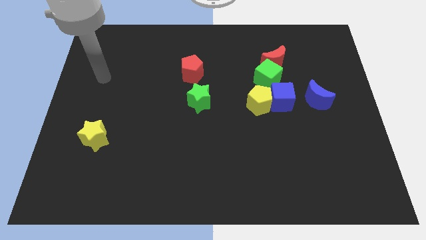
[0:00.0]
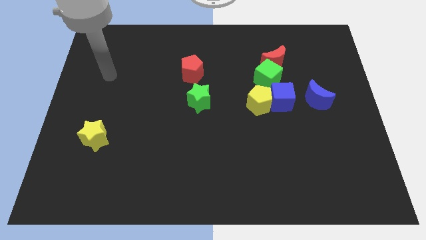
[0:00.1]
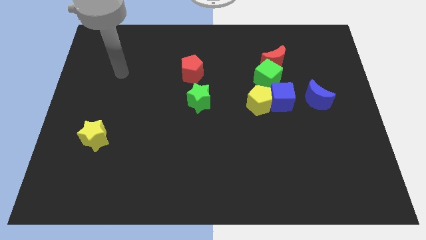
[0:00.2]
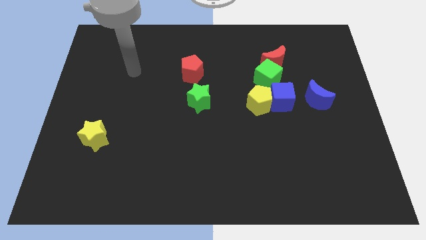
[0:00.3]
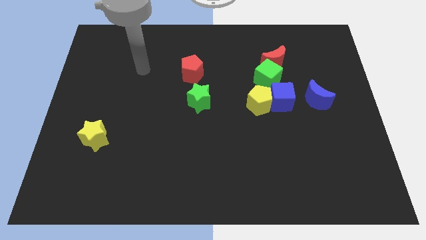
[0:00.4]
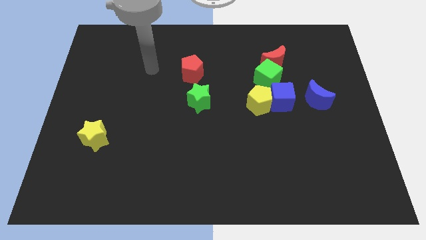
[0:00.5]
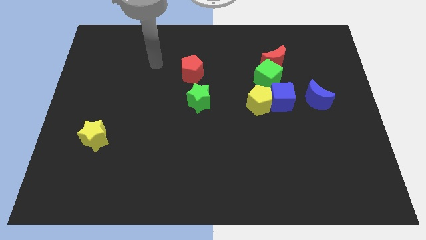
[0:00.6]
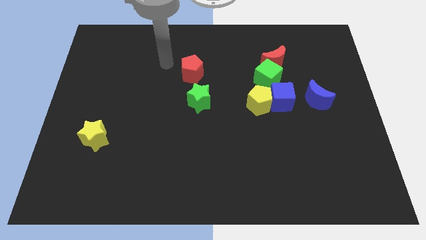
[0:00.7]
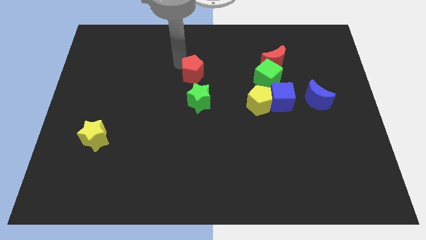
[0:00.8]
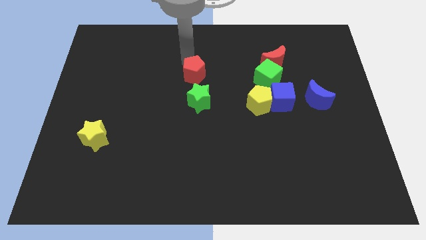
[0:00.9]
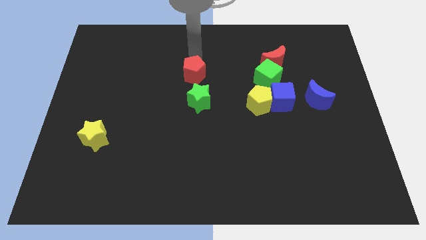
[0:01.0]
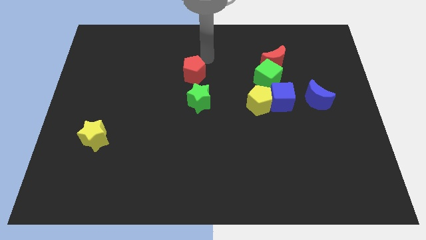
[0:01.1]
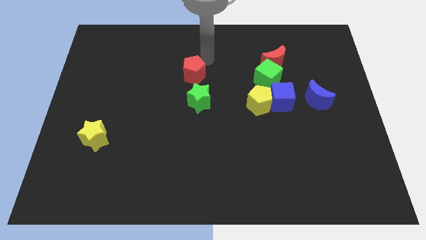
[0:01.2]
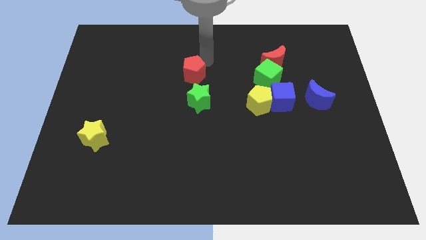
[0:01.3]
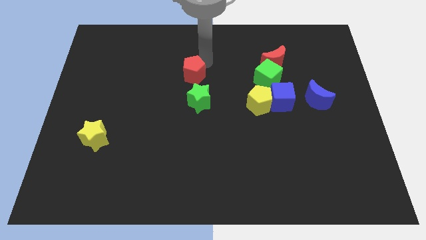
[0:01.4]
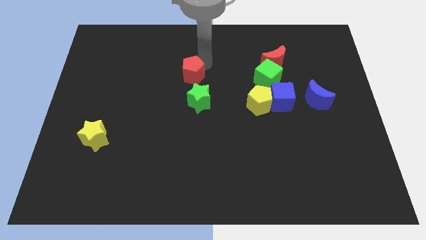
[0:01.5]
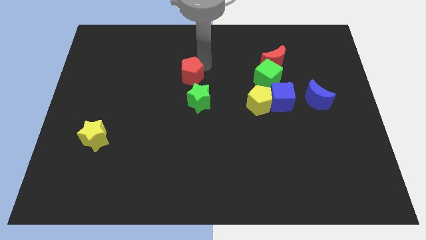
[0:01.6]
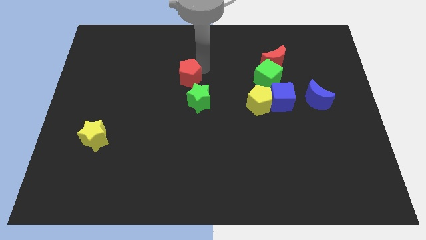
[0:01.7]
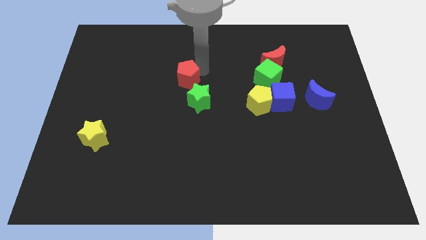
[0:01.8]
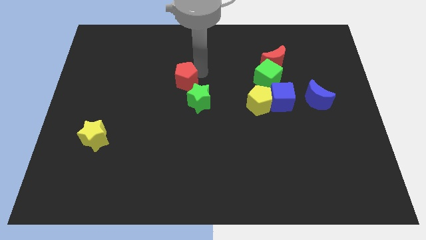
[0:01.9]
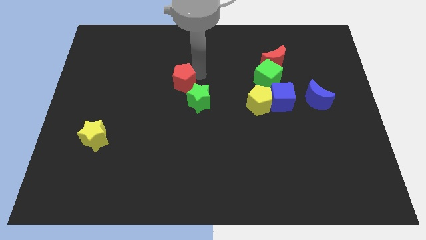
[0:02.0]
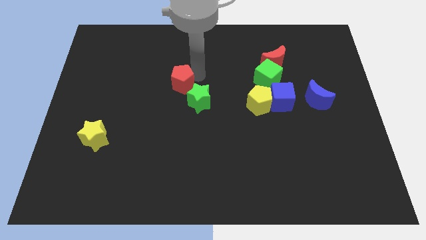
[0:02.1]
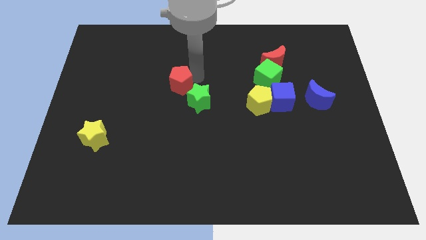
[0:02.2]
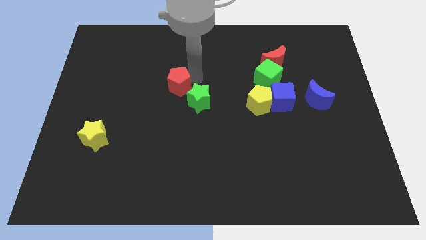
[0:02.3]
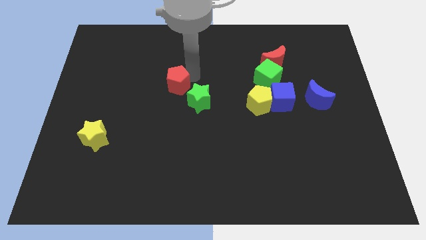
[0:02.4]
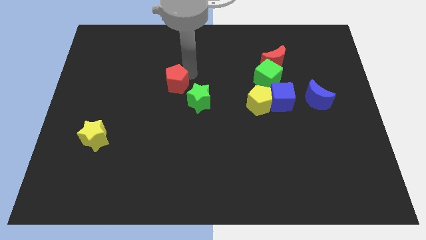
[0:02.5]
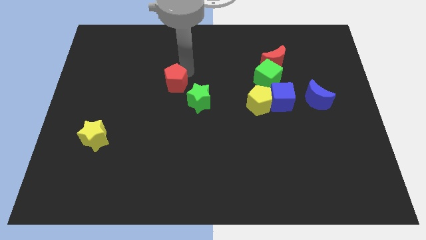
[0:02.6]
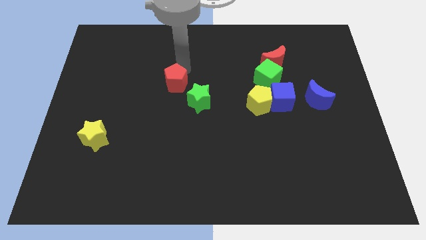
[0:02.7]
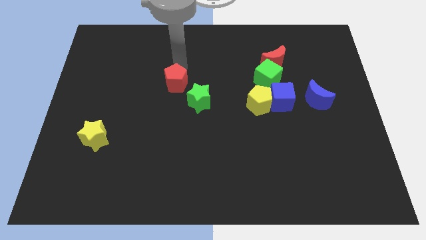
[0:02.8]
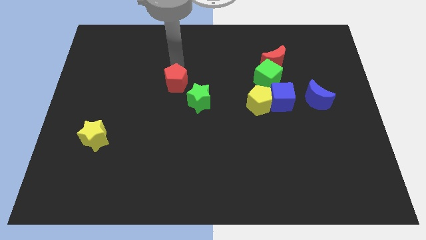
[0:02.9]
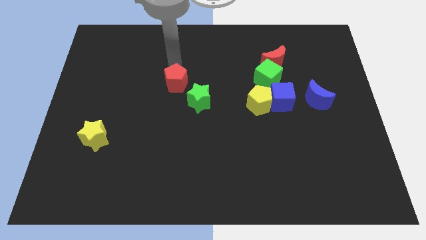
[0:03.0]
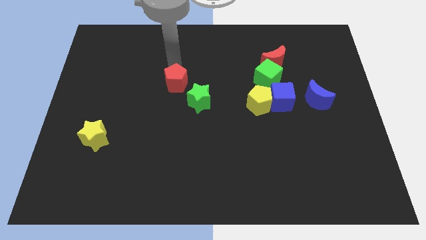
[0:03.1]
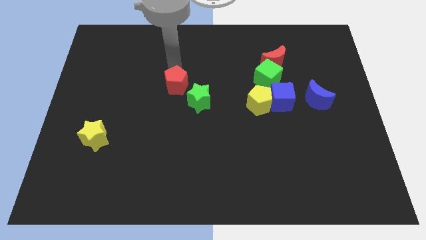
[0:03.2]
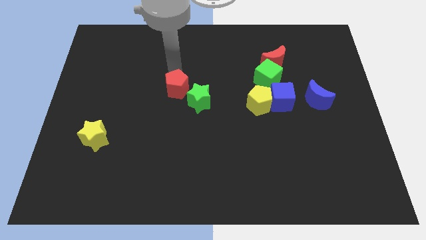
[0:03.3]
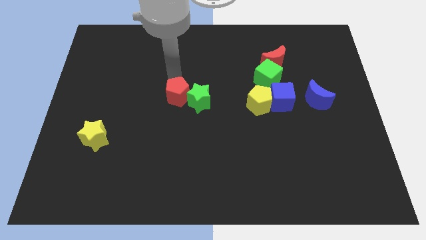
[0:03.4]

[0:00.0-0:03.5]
slightly push the red pentagon downwards

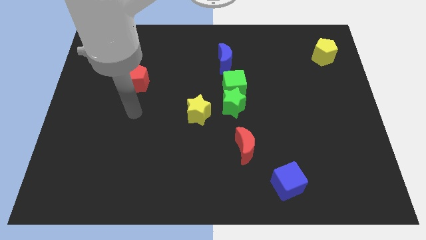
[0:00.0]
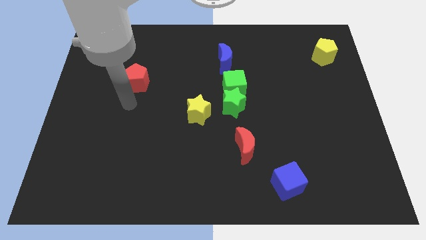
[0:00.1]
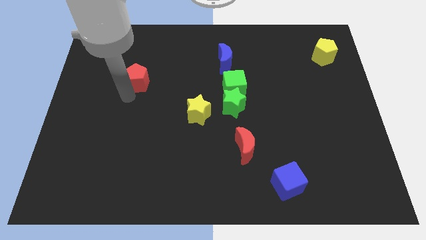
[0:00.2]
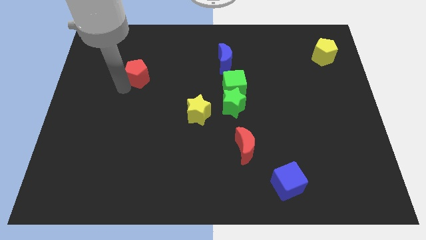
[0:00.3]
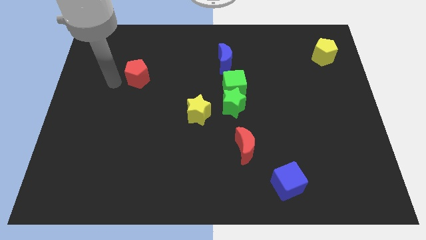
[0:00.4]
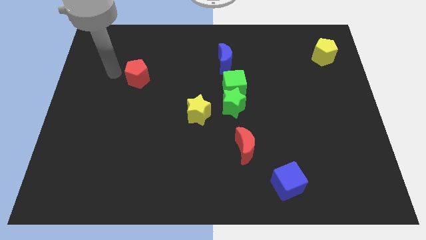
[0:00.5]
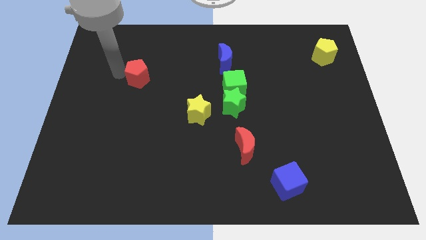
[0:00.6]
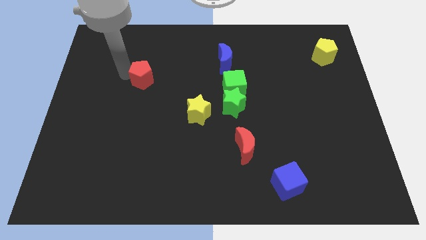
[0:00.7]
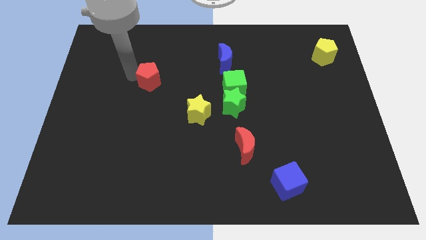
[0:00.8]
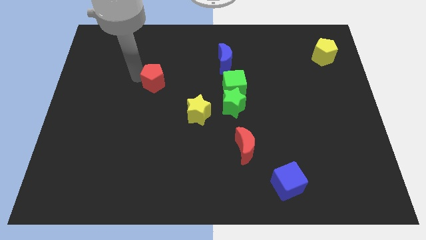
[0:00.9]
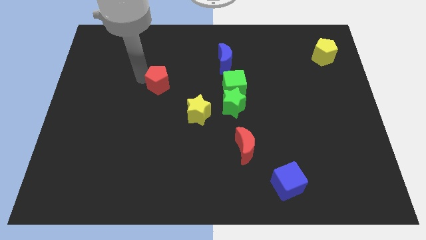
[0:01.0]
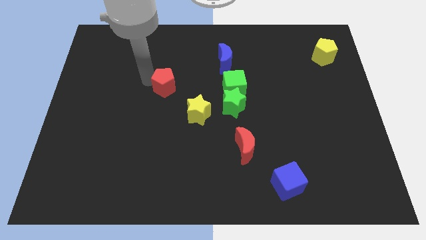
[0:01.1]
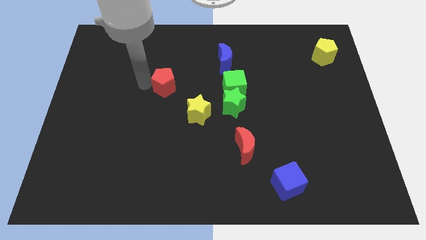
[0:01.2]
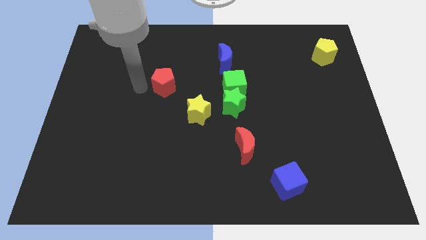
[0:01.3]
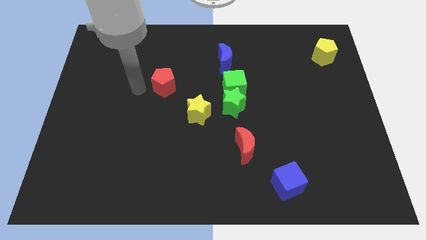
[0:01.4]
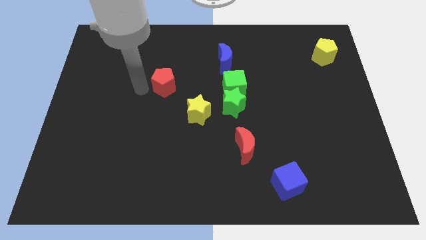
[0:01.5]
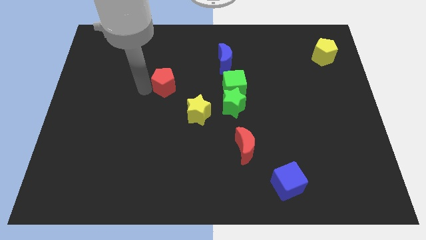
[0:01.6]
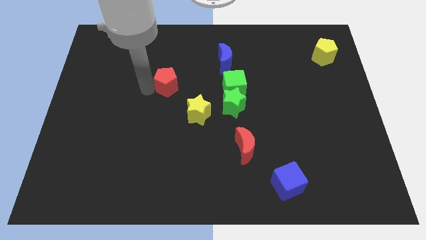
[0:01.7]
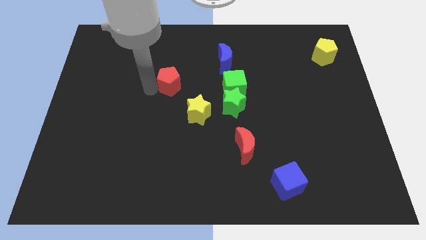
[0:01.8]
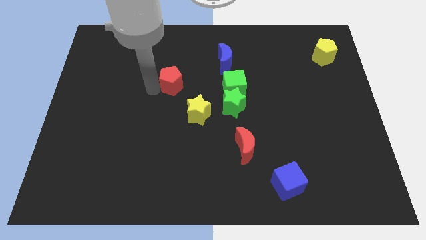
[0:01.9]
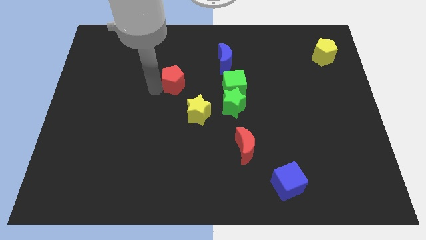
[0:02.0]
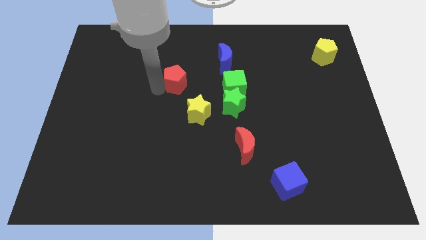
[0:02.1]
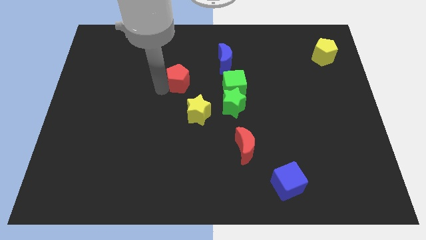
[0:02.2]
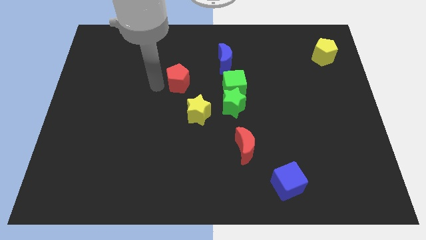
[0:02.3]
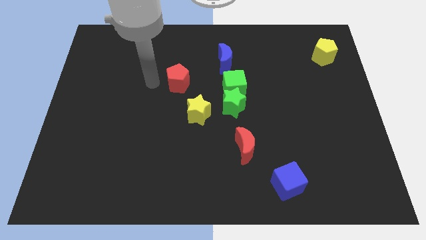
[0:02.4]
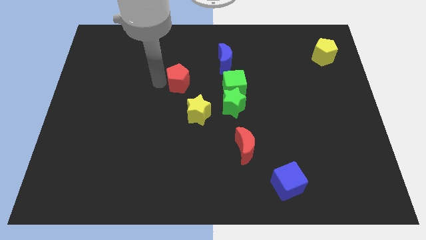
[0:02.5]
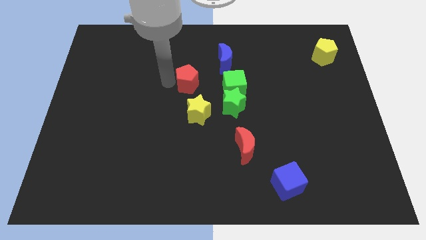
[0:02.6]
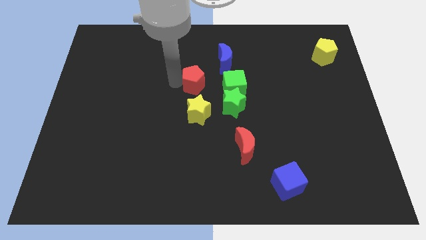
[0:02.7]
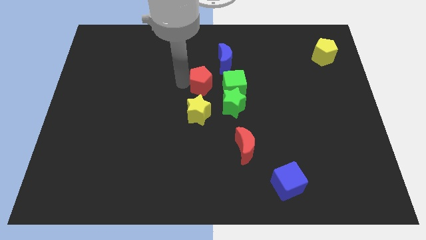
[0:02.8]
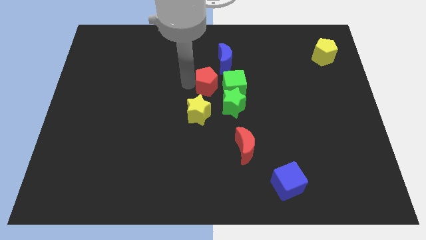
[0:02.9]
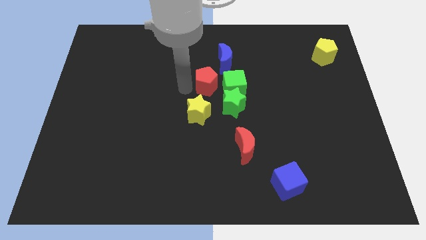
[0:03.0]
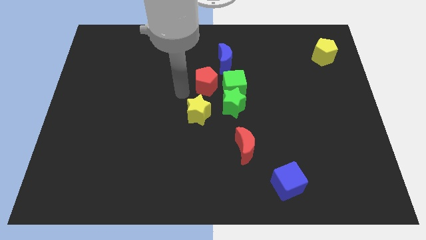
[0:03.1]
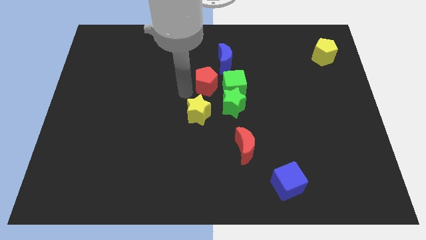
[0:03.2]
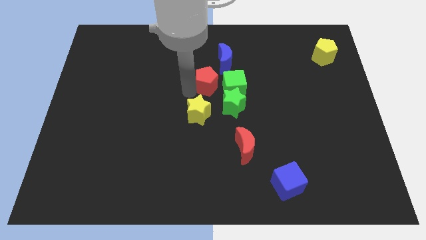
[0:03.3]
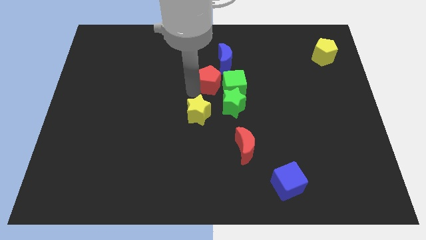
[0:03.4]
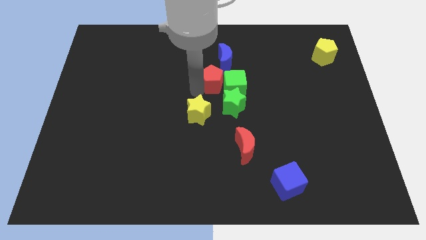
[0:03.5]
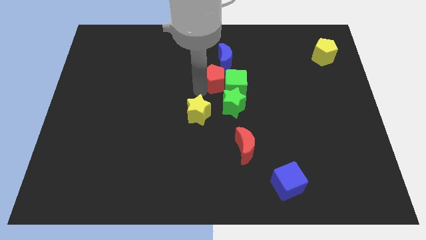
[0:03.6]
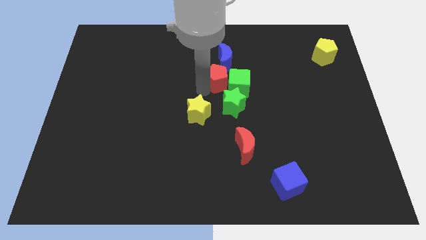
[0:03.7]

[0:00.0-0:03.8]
slide the red pentagon right

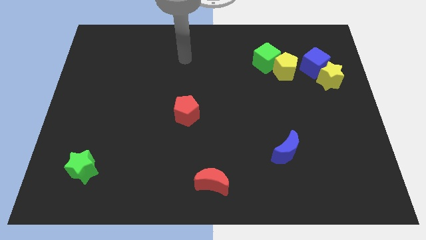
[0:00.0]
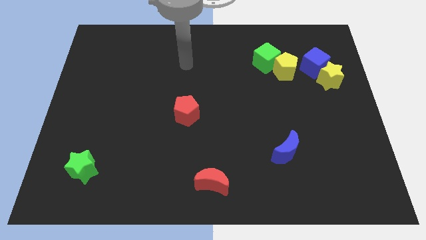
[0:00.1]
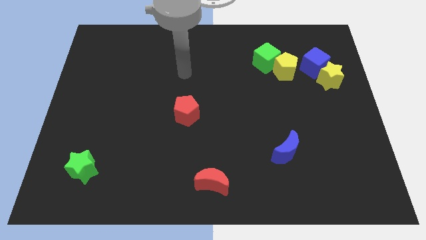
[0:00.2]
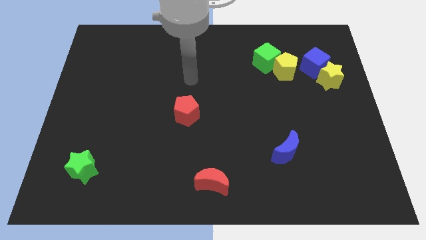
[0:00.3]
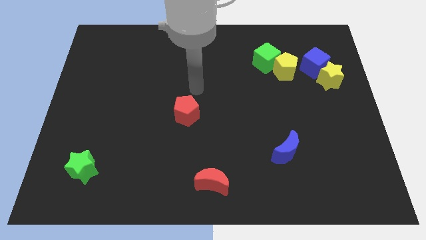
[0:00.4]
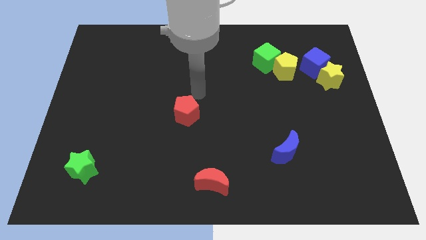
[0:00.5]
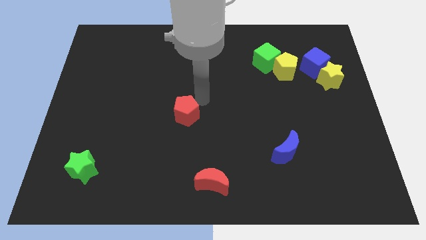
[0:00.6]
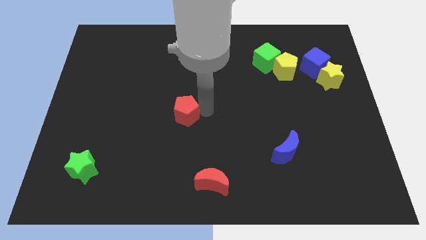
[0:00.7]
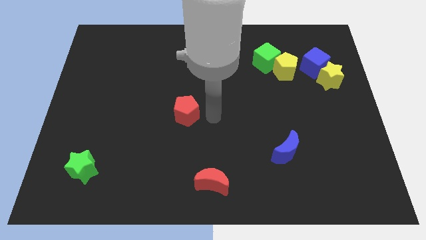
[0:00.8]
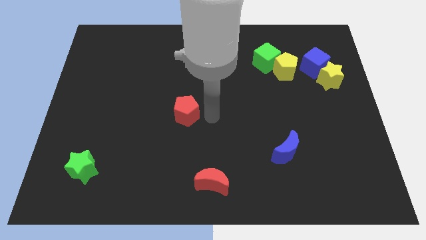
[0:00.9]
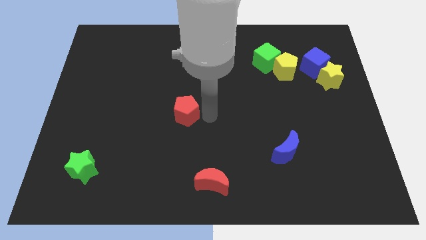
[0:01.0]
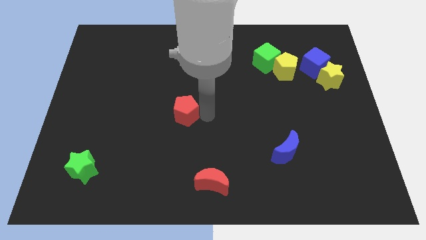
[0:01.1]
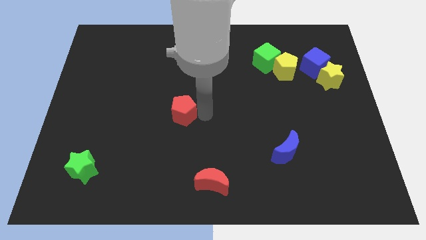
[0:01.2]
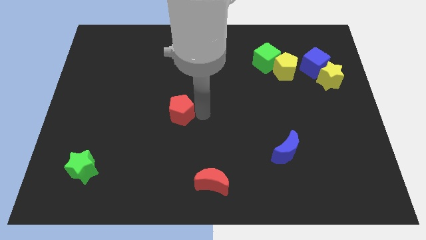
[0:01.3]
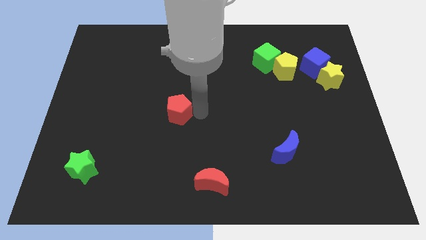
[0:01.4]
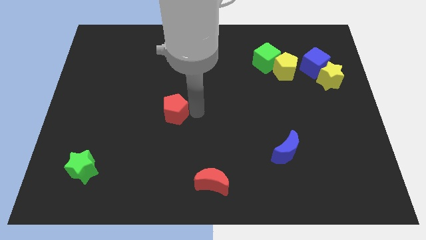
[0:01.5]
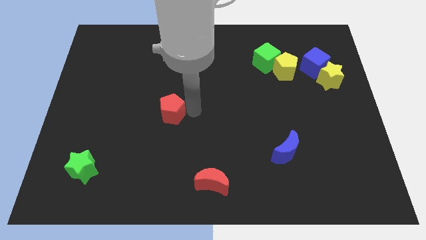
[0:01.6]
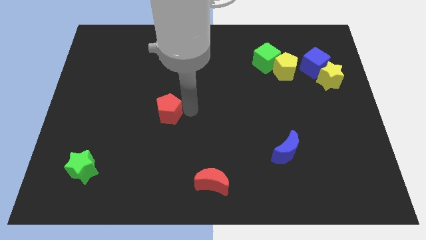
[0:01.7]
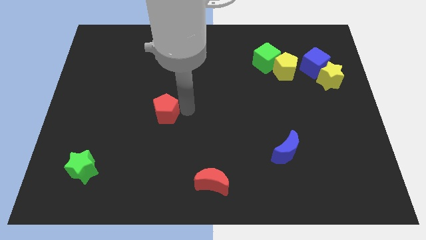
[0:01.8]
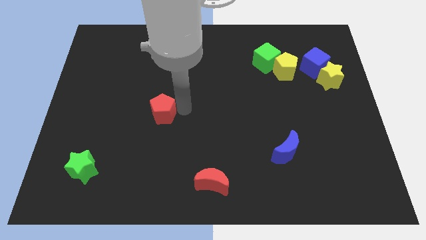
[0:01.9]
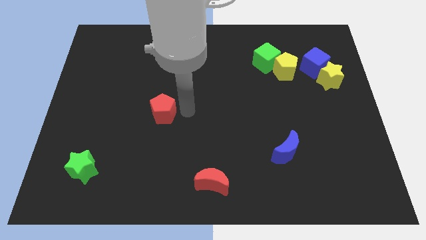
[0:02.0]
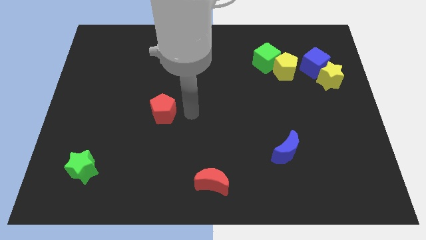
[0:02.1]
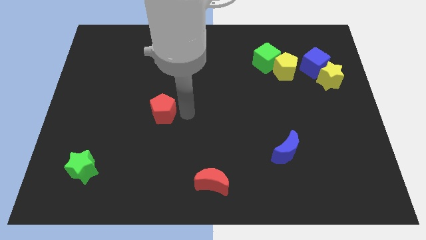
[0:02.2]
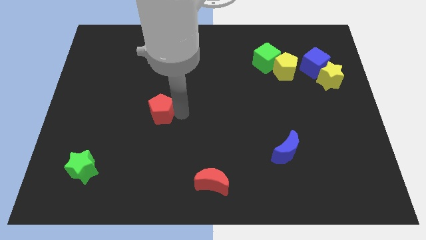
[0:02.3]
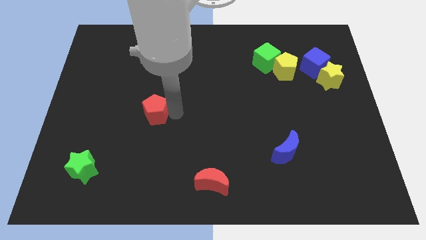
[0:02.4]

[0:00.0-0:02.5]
push the red pentagon a little bit left
